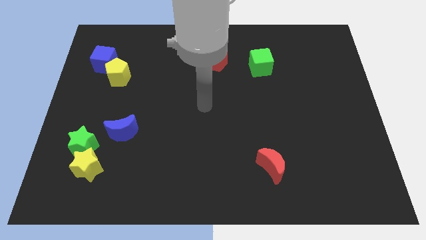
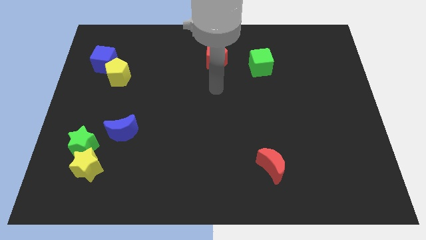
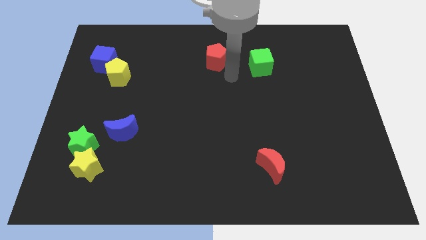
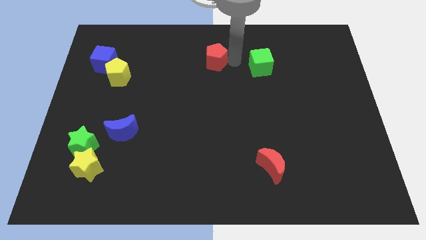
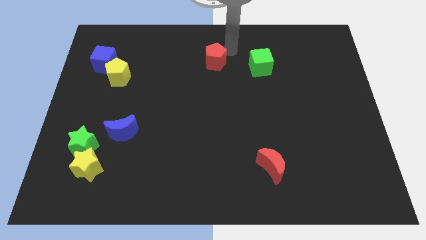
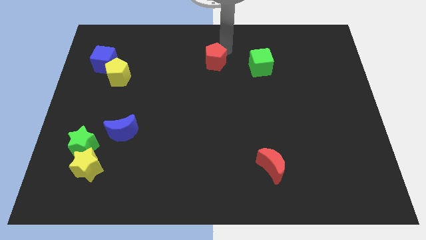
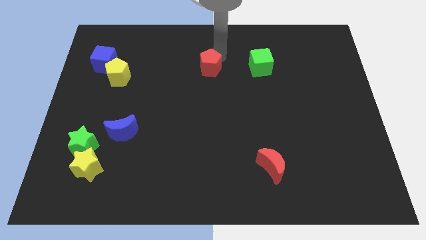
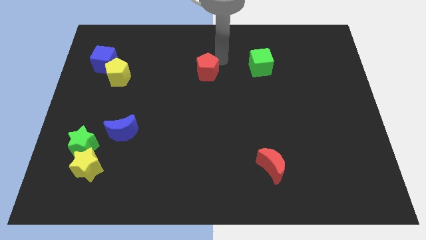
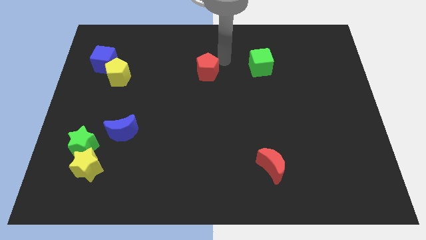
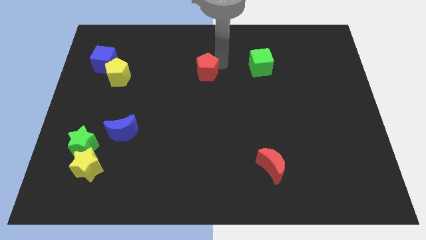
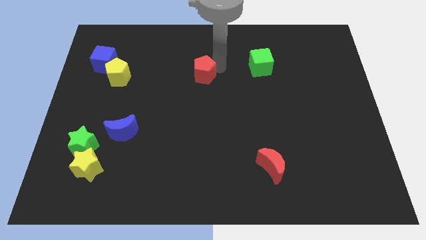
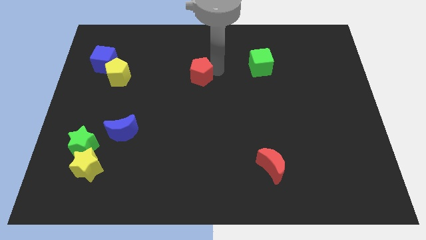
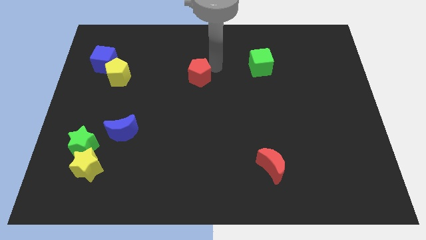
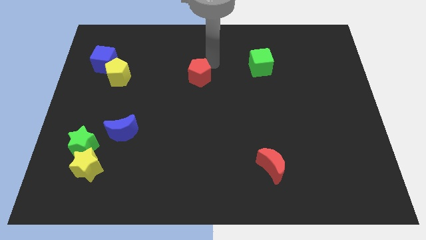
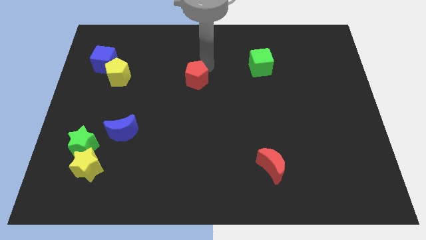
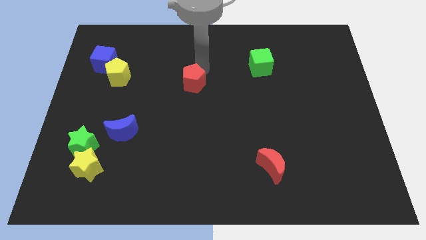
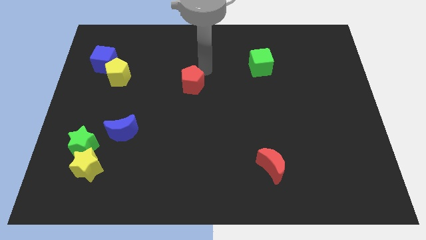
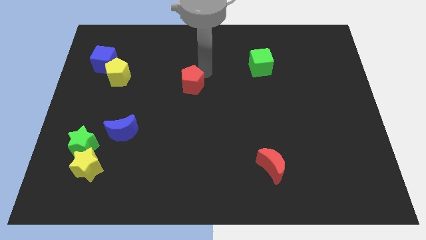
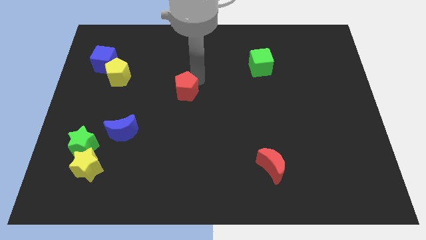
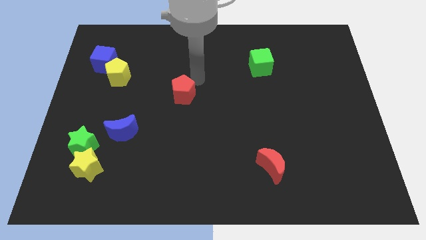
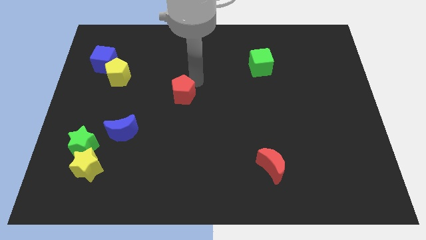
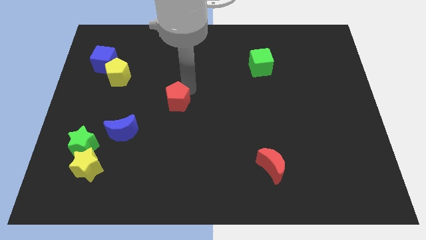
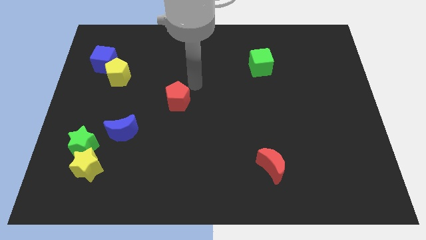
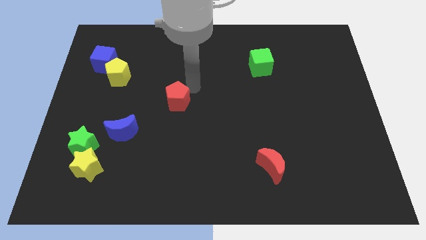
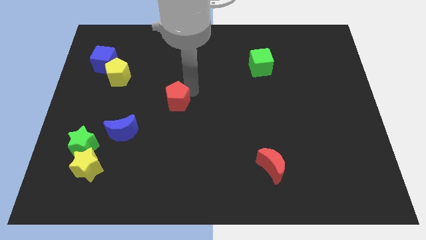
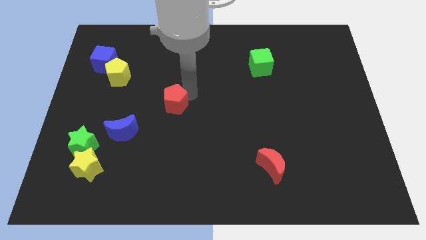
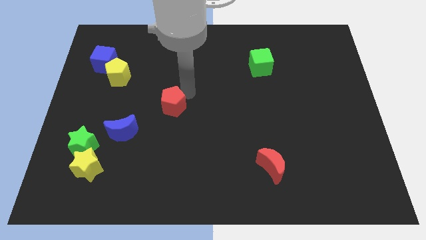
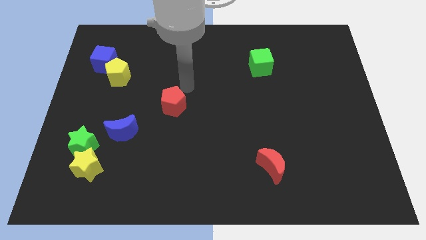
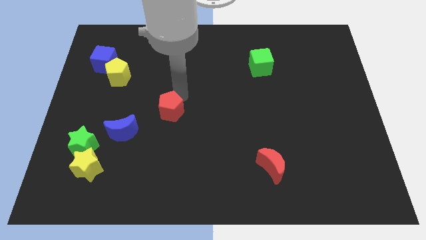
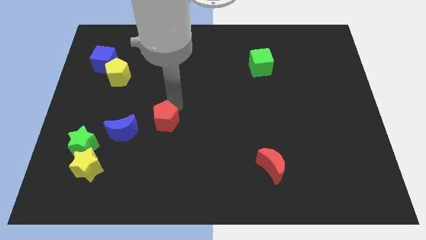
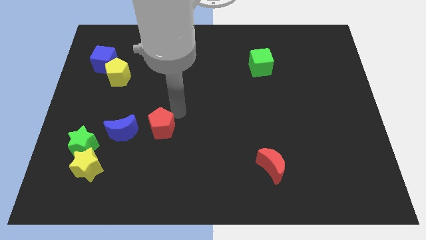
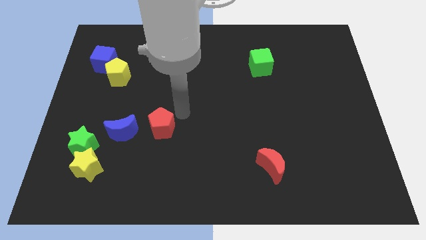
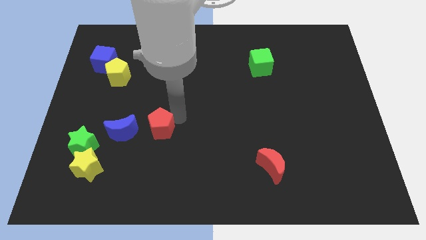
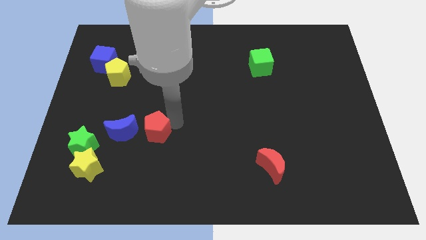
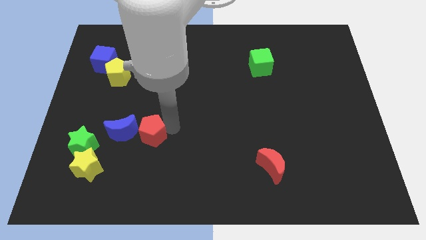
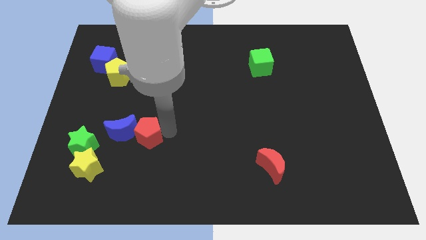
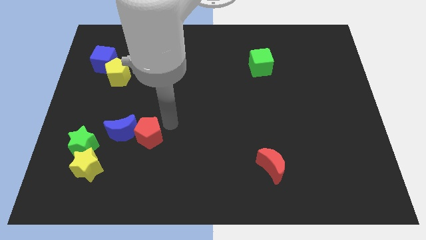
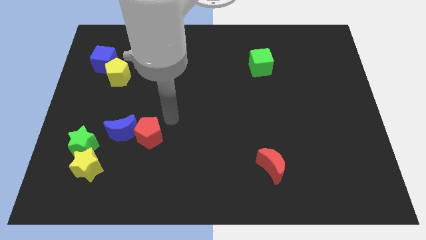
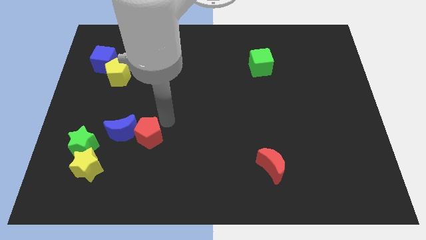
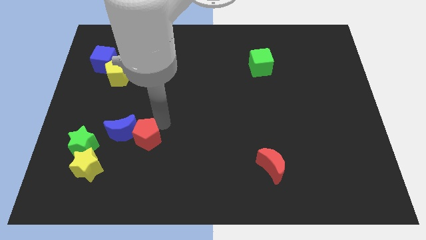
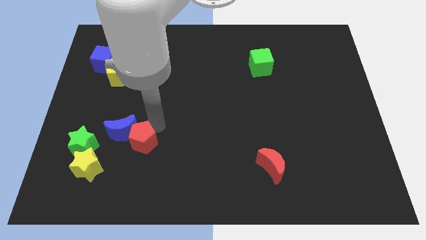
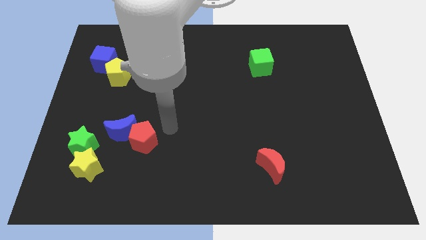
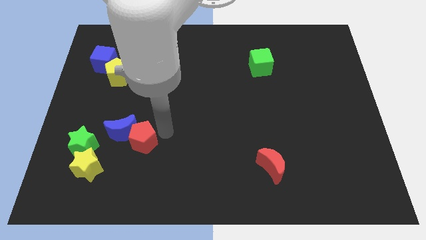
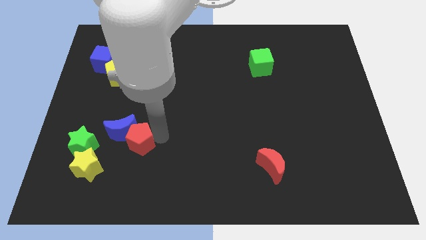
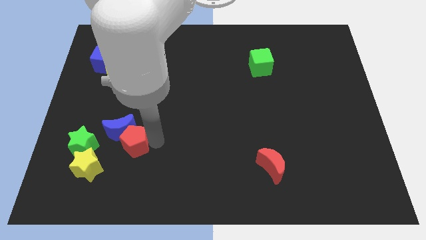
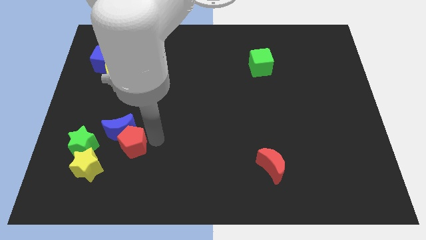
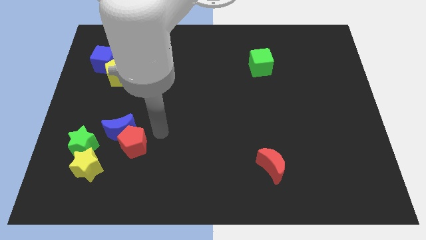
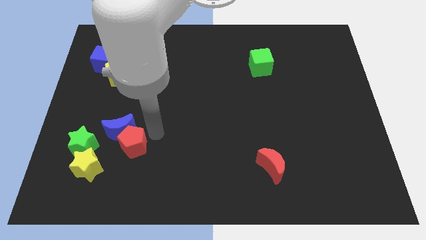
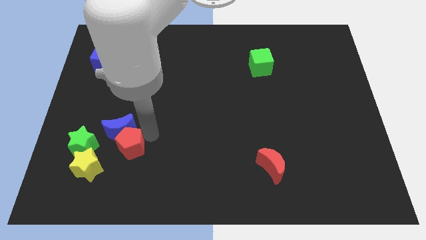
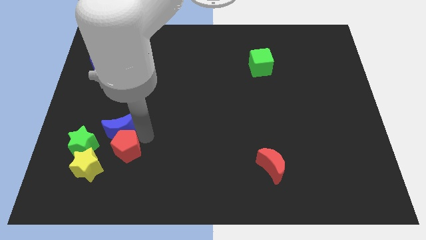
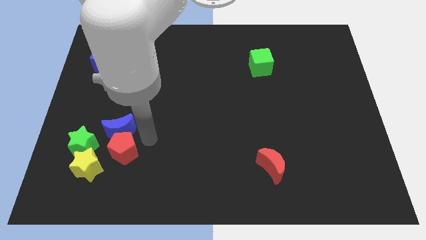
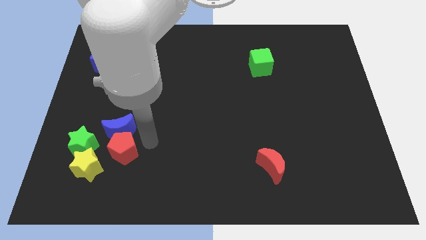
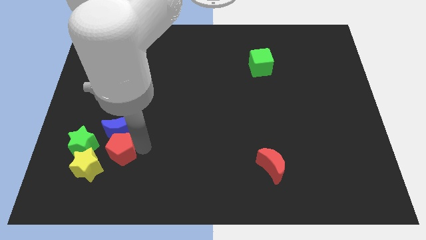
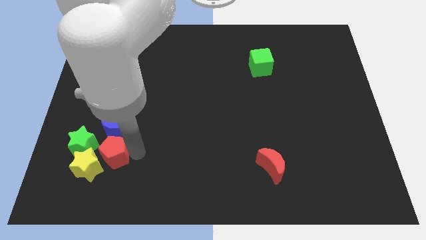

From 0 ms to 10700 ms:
push the red pentagon towards the yellow star

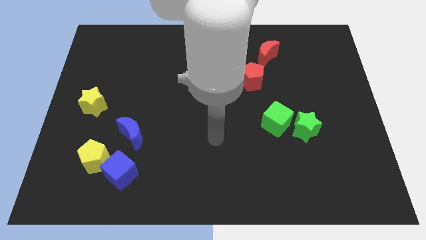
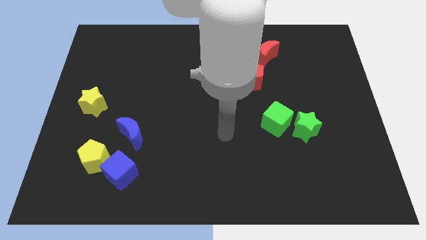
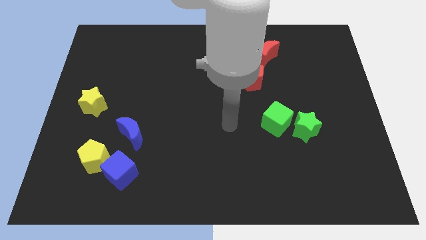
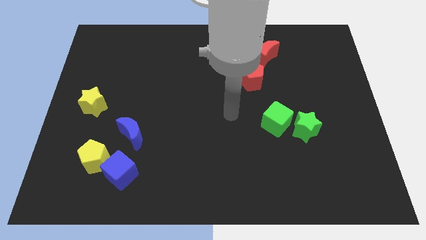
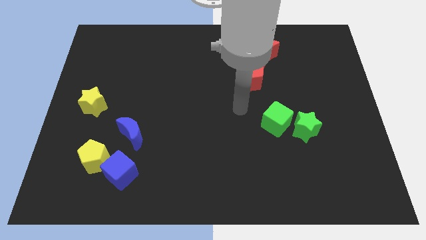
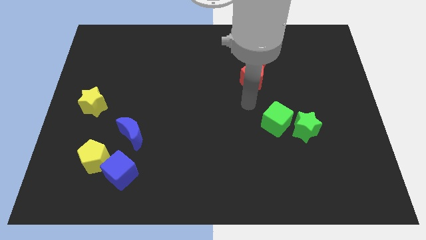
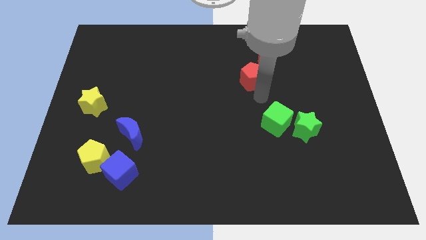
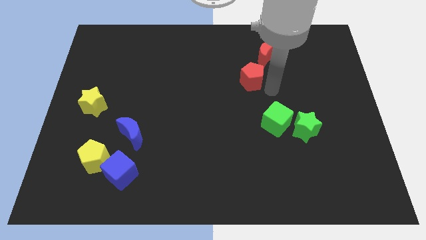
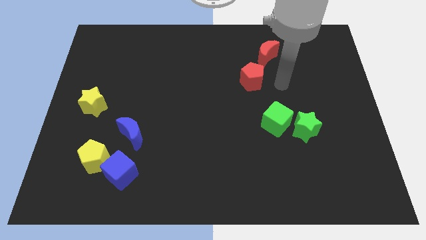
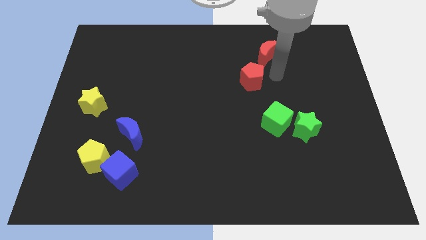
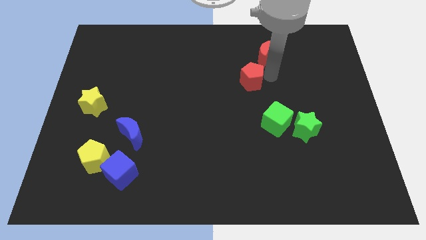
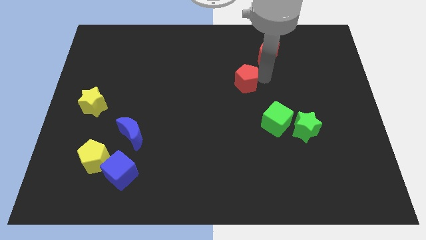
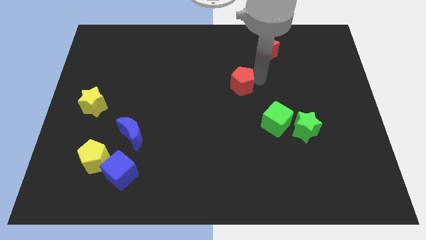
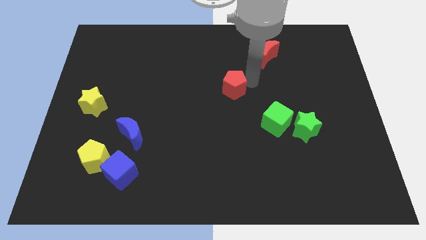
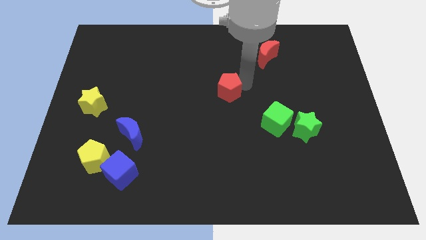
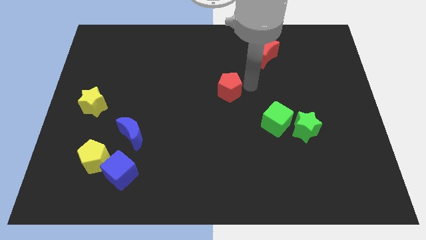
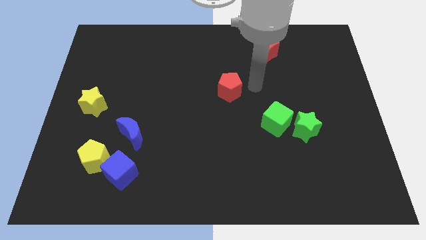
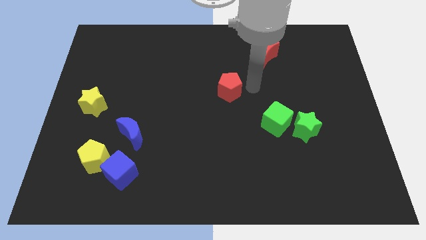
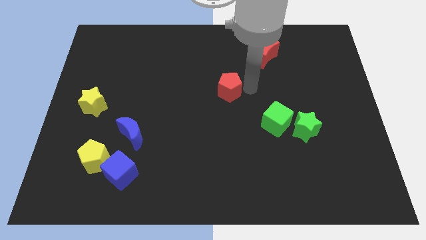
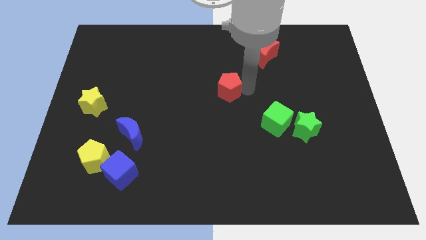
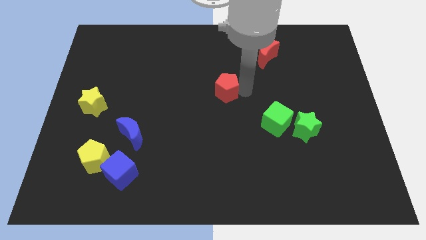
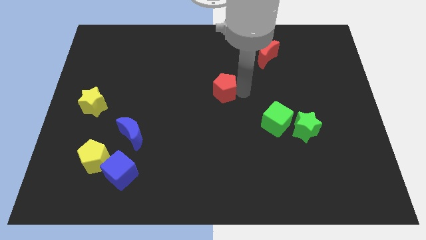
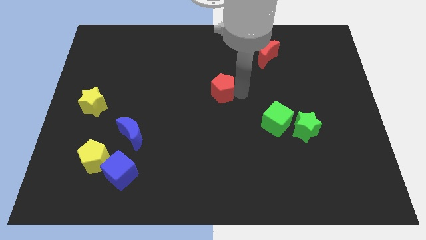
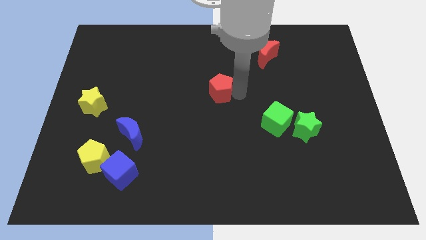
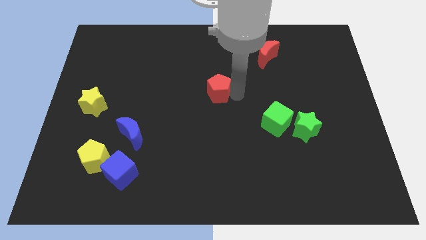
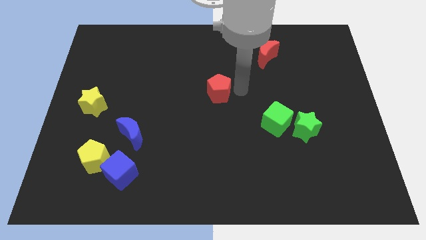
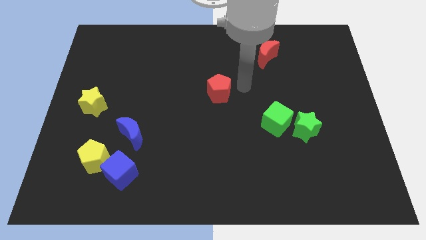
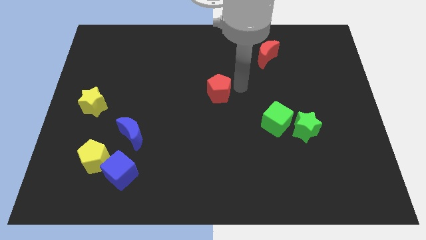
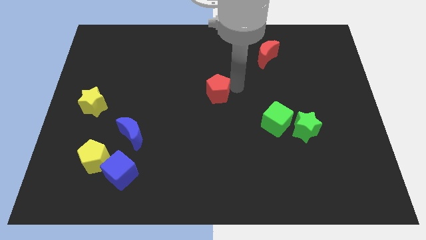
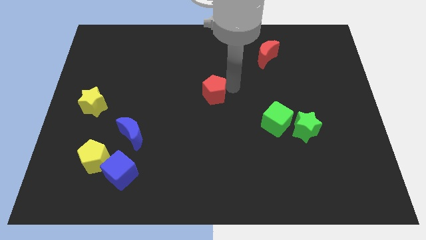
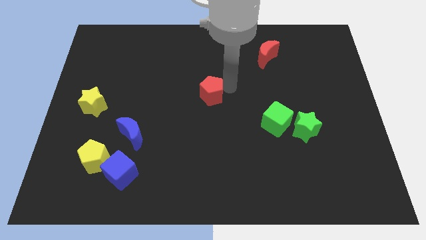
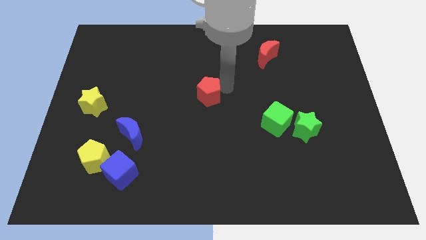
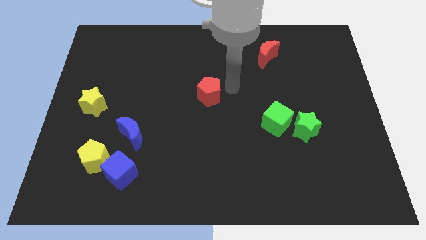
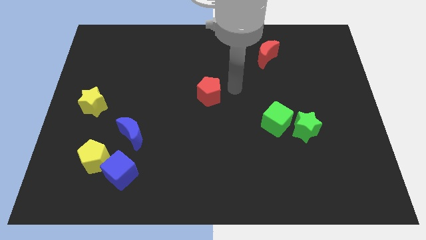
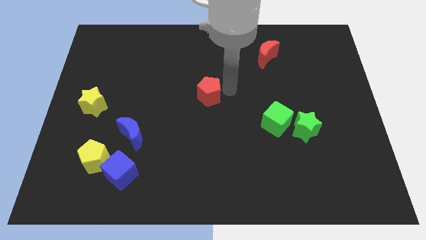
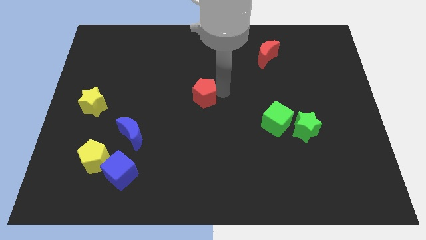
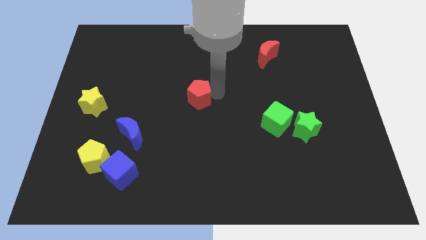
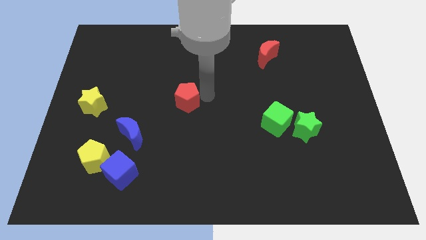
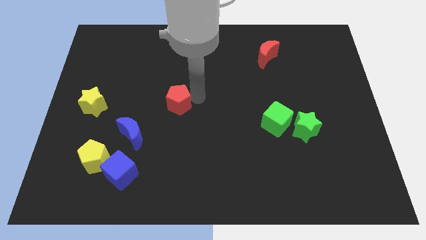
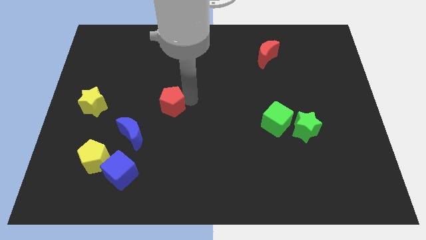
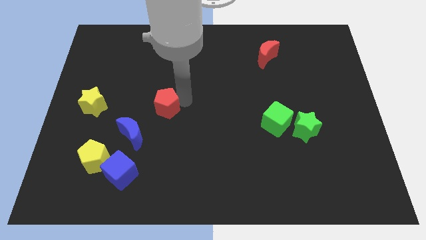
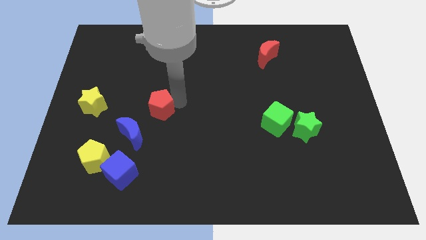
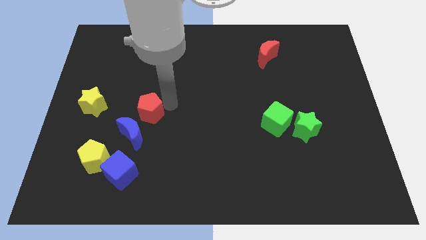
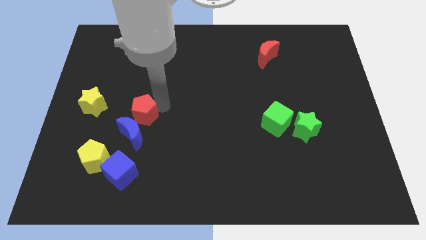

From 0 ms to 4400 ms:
slide the red pentagon next to the blue moon
